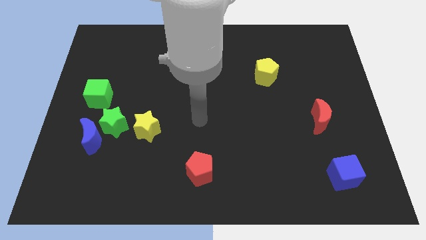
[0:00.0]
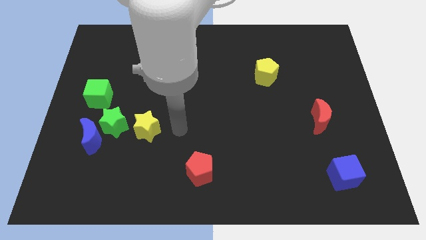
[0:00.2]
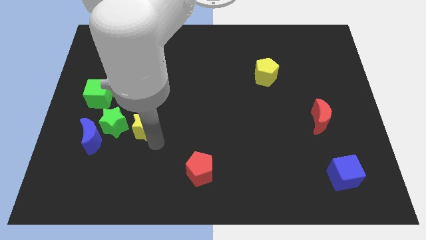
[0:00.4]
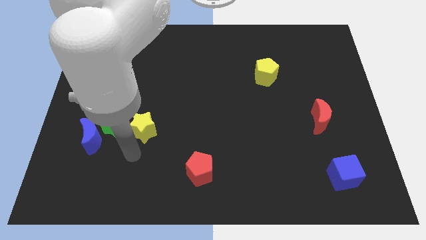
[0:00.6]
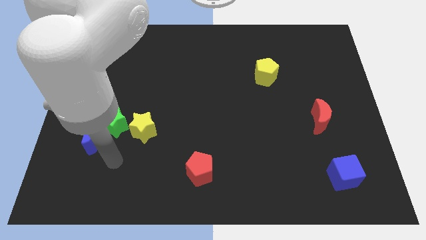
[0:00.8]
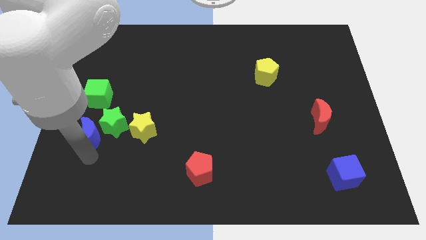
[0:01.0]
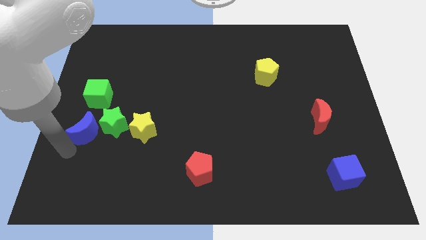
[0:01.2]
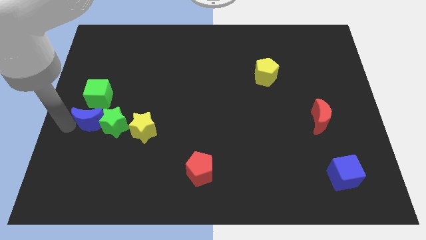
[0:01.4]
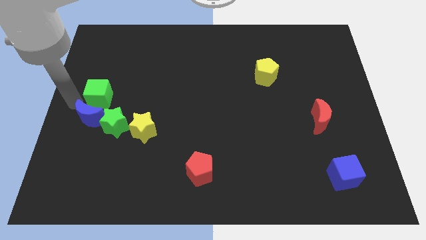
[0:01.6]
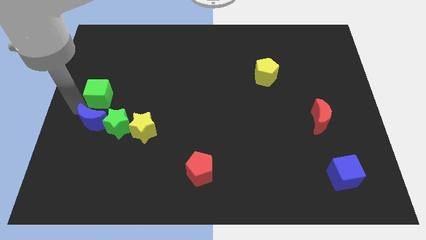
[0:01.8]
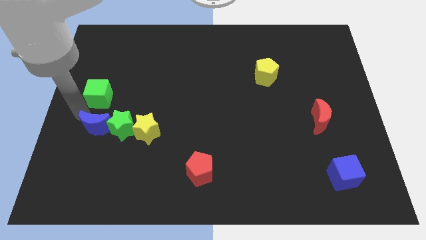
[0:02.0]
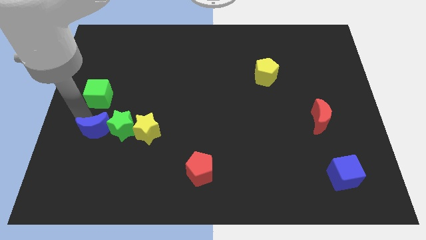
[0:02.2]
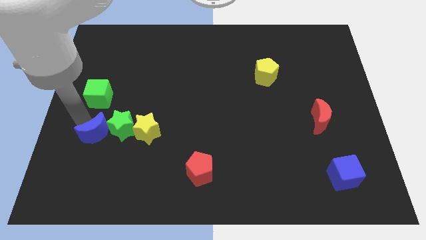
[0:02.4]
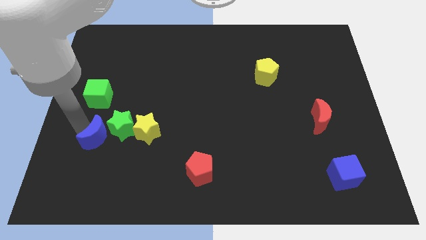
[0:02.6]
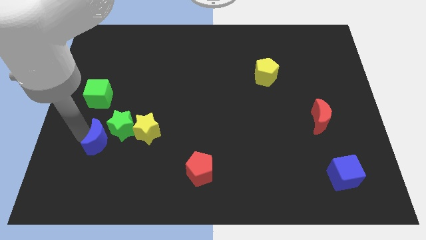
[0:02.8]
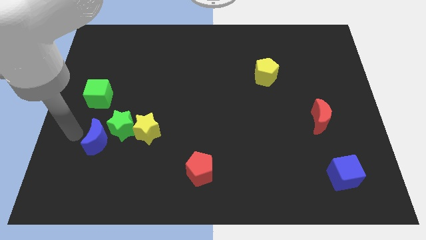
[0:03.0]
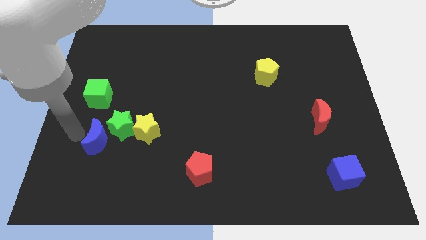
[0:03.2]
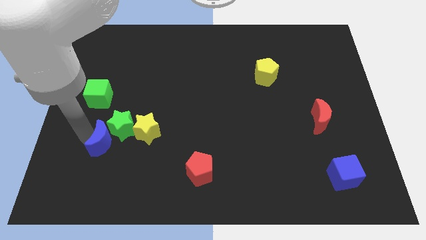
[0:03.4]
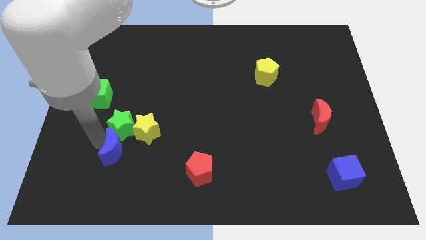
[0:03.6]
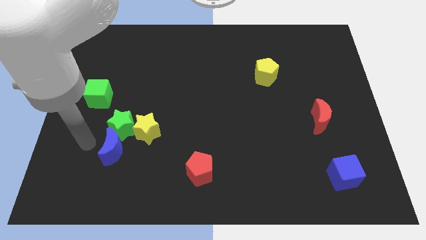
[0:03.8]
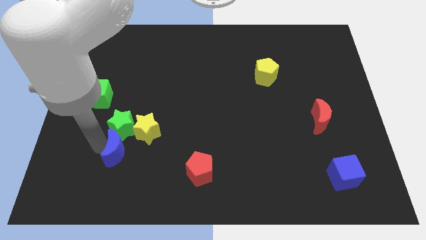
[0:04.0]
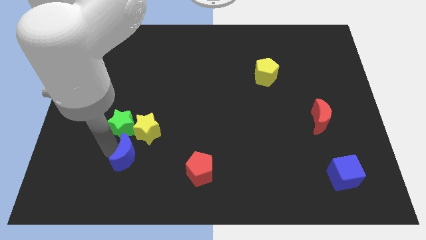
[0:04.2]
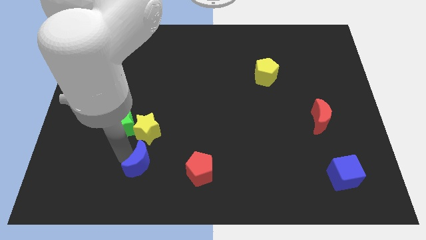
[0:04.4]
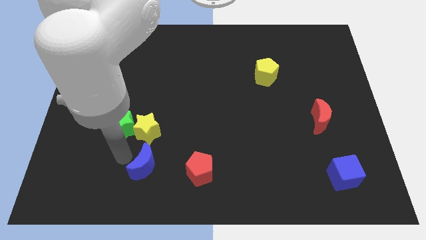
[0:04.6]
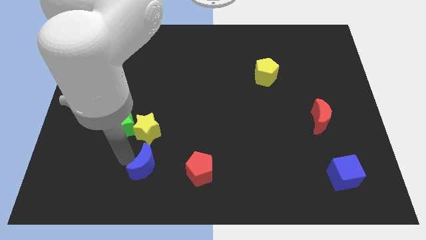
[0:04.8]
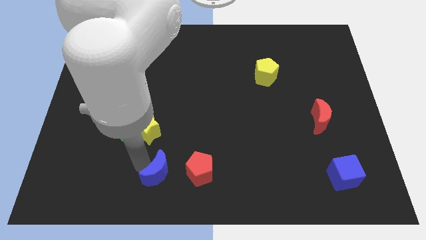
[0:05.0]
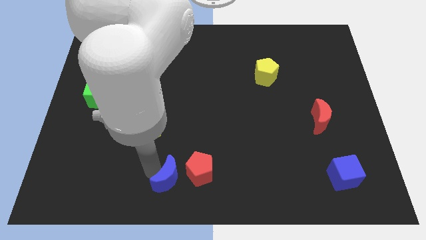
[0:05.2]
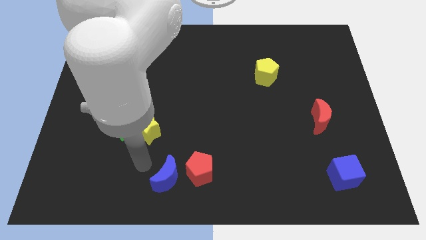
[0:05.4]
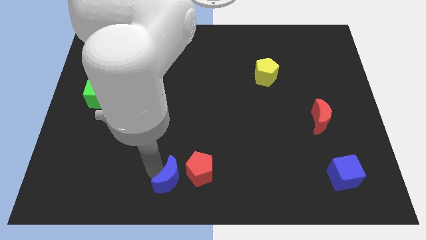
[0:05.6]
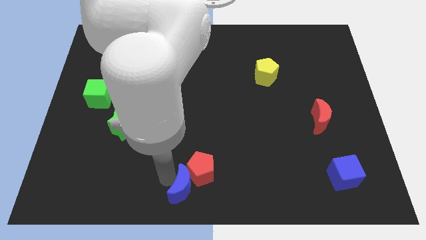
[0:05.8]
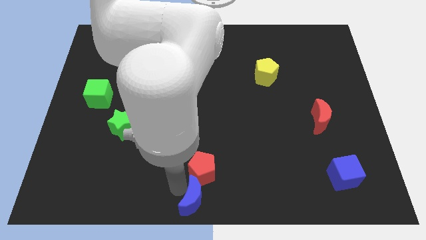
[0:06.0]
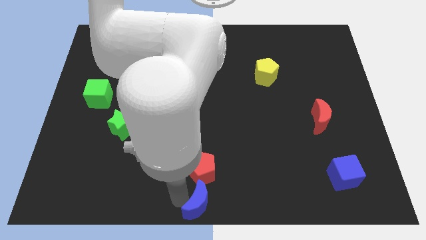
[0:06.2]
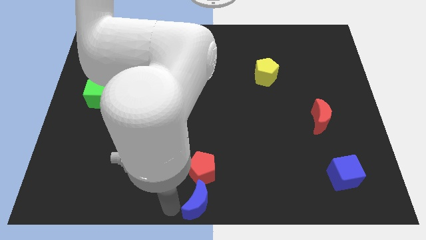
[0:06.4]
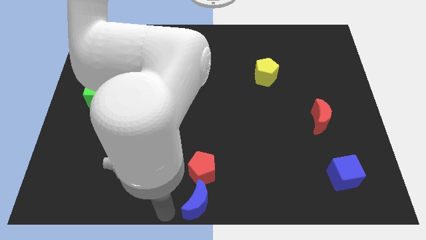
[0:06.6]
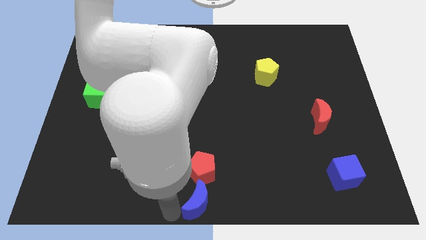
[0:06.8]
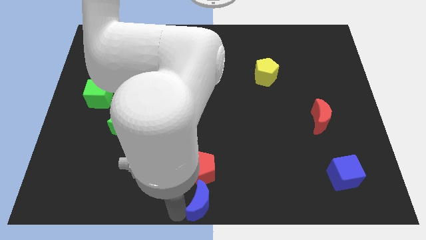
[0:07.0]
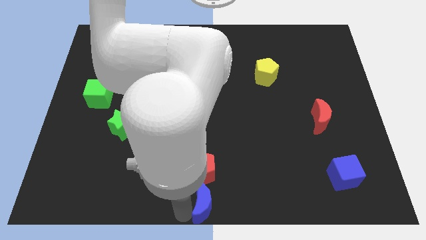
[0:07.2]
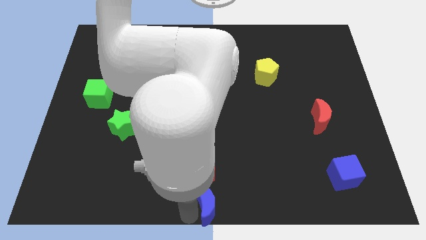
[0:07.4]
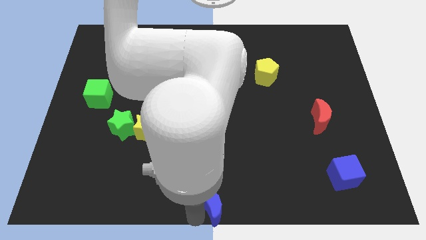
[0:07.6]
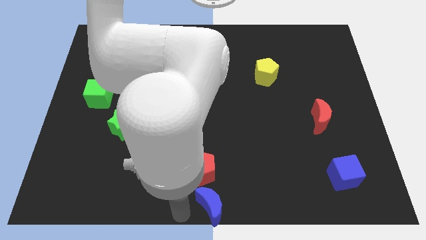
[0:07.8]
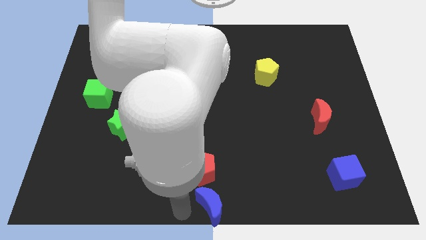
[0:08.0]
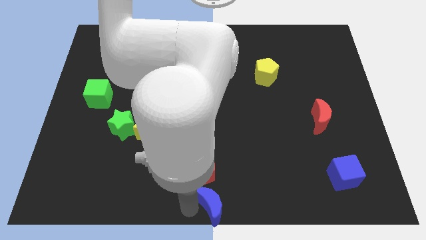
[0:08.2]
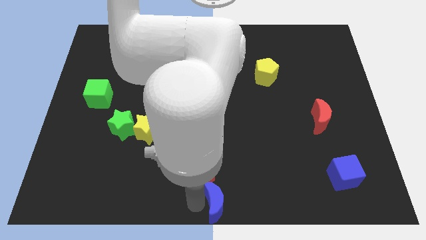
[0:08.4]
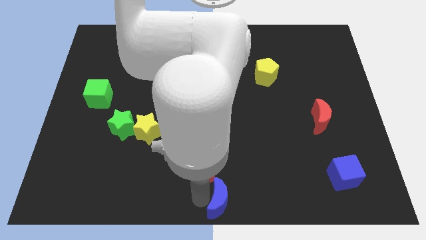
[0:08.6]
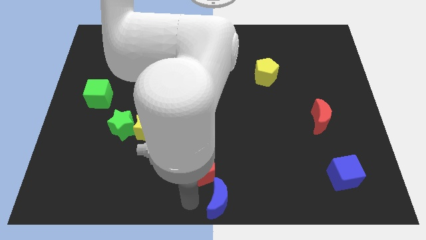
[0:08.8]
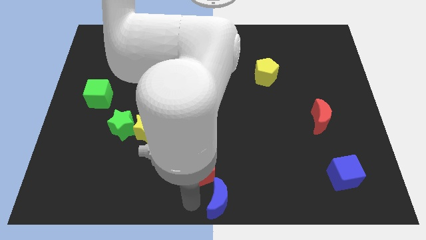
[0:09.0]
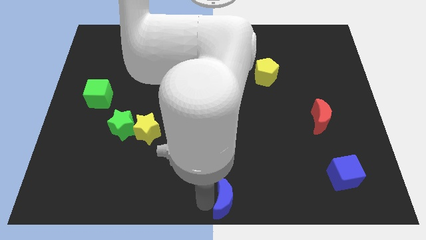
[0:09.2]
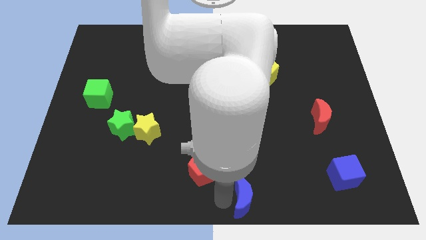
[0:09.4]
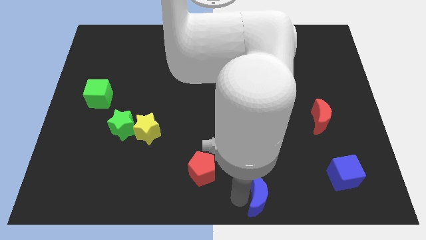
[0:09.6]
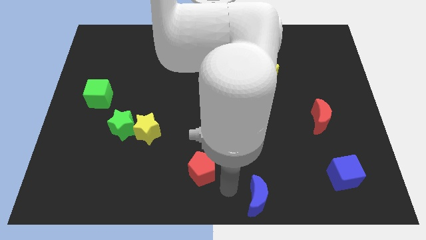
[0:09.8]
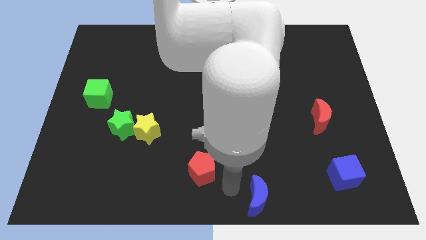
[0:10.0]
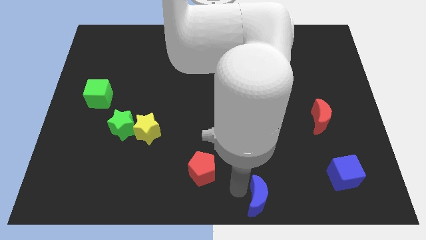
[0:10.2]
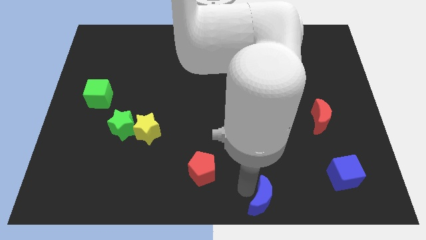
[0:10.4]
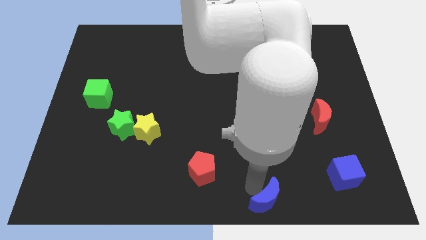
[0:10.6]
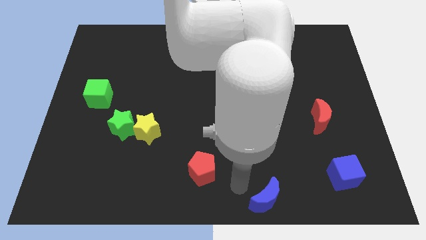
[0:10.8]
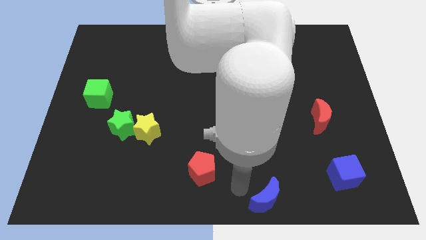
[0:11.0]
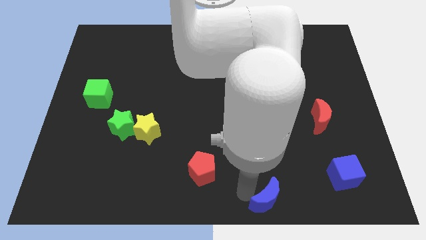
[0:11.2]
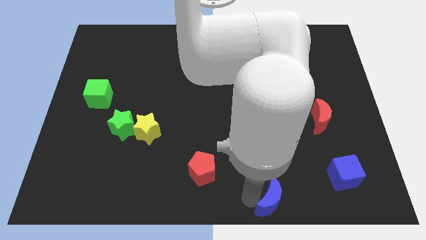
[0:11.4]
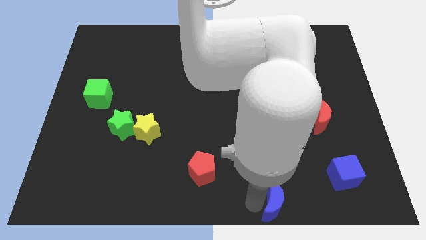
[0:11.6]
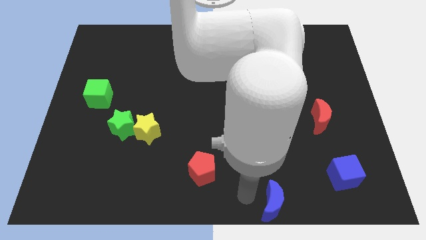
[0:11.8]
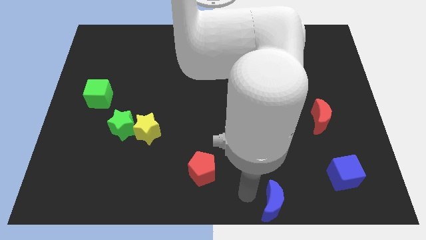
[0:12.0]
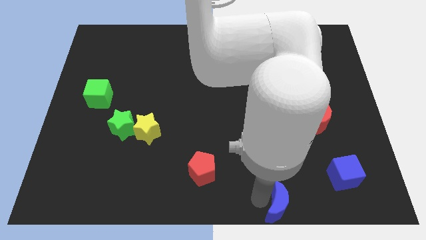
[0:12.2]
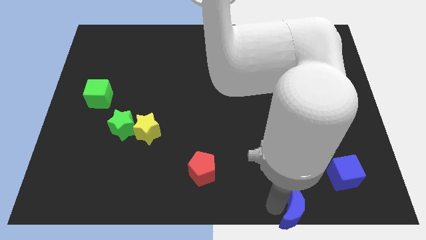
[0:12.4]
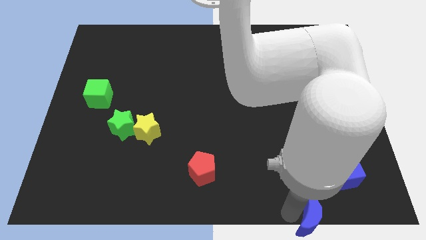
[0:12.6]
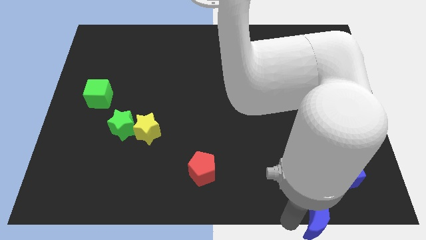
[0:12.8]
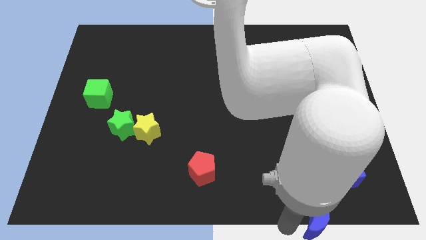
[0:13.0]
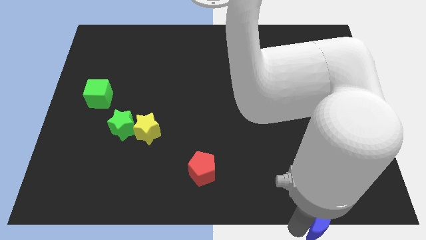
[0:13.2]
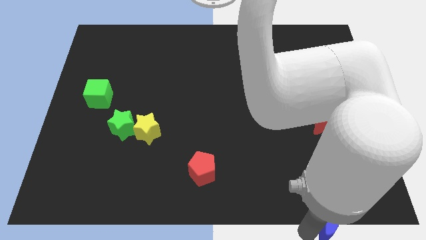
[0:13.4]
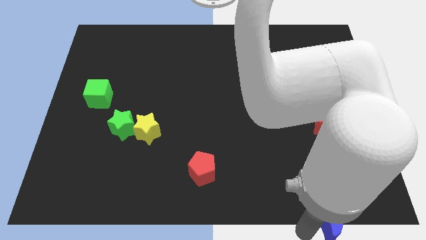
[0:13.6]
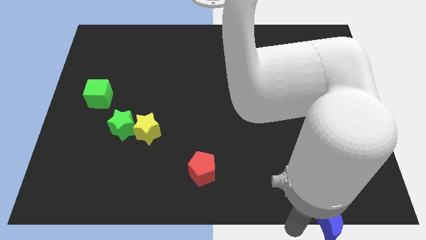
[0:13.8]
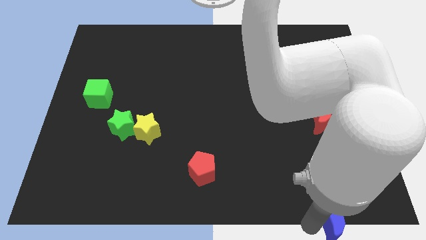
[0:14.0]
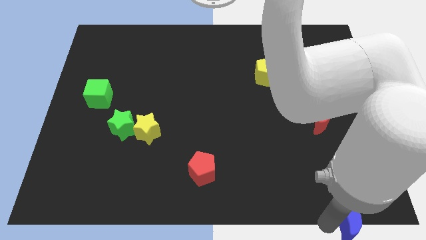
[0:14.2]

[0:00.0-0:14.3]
put the blue moon to the bottom right of the board
